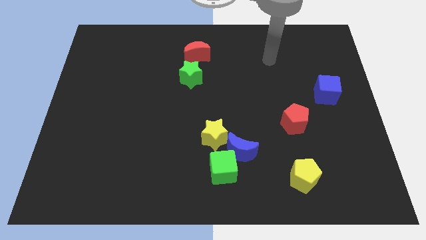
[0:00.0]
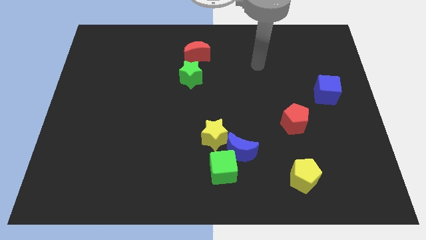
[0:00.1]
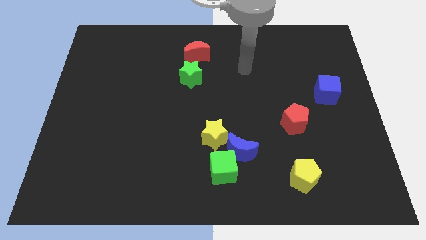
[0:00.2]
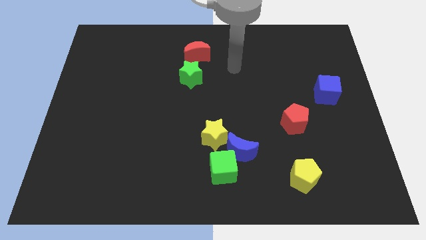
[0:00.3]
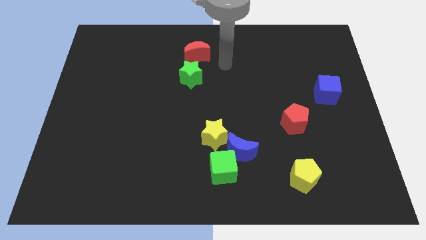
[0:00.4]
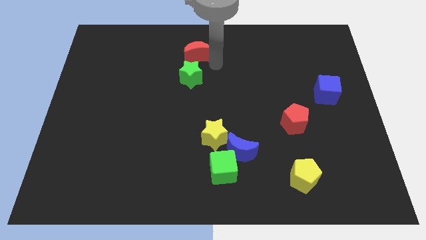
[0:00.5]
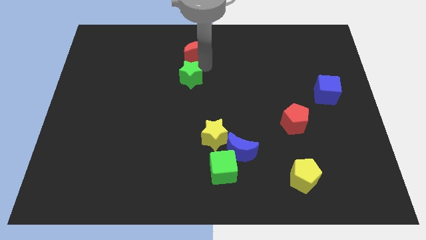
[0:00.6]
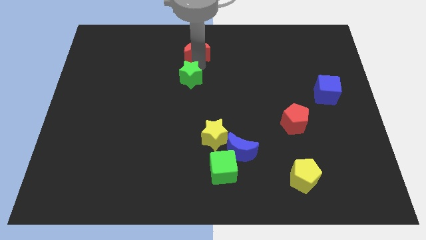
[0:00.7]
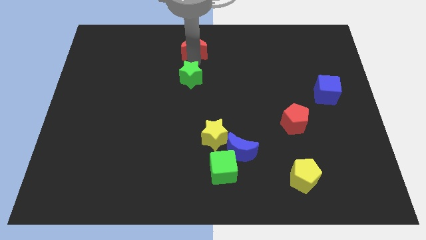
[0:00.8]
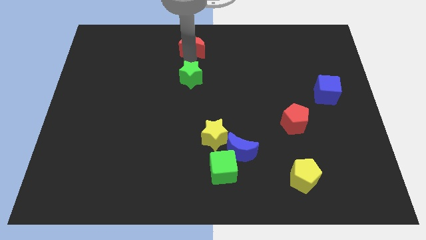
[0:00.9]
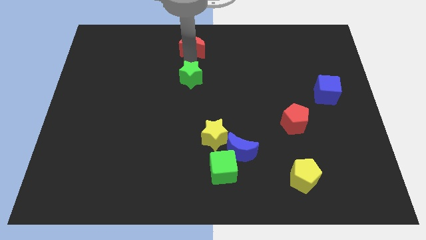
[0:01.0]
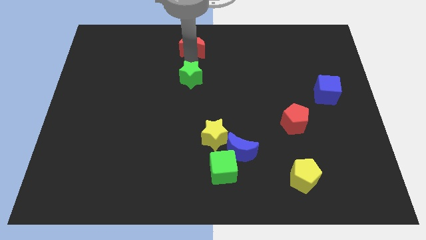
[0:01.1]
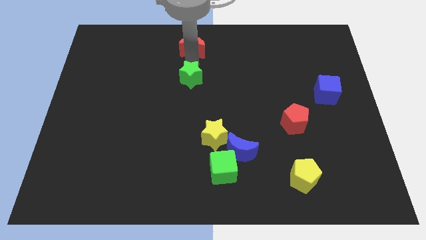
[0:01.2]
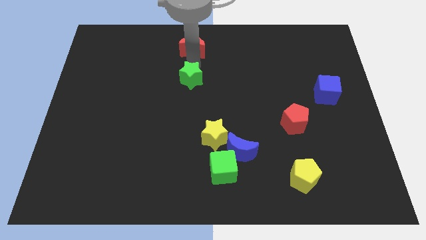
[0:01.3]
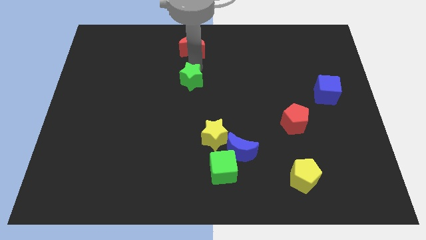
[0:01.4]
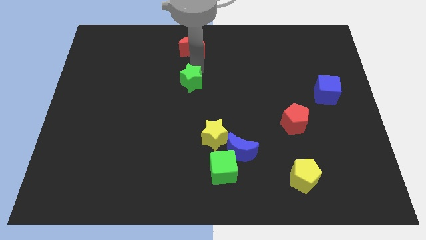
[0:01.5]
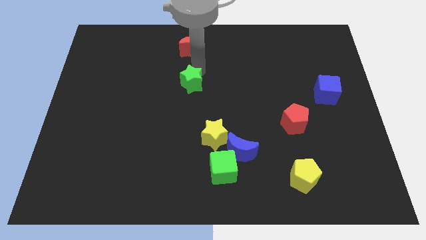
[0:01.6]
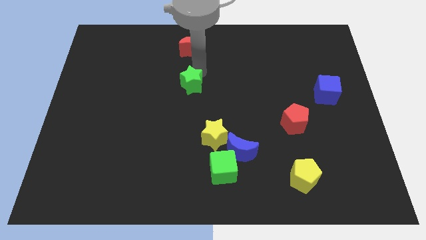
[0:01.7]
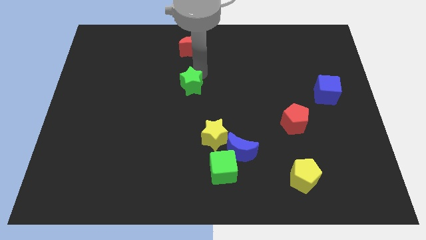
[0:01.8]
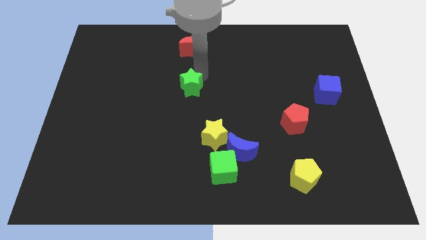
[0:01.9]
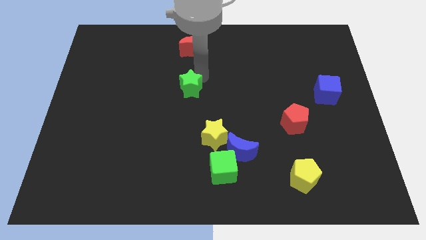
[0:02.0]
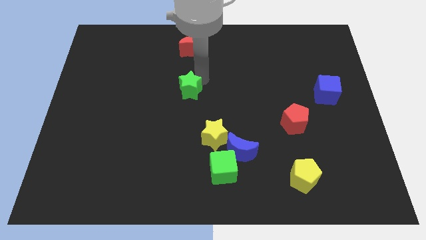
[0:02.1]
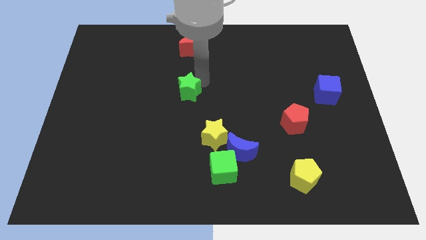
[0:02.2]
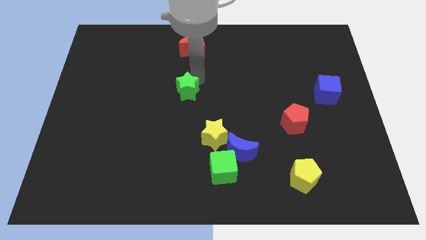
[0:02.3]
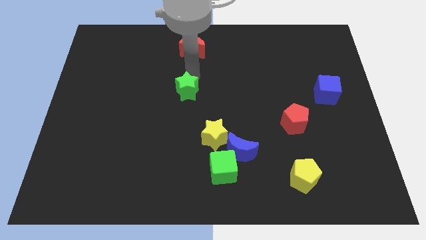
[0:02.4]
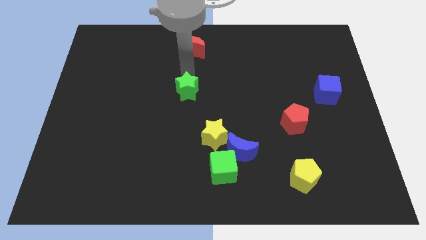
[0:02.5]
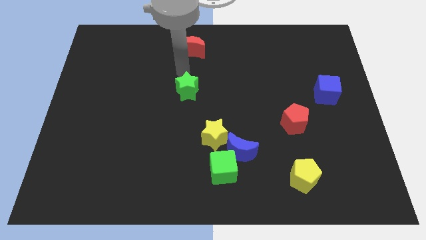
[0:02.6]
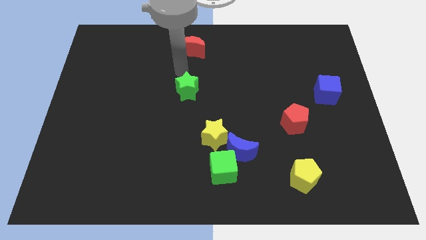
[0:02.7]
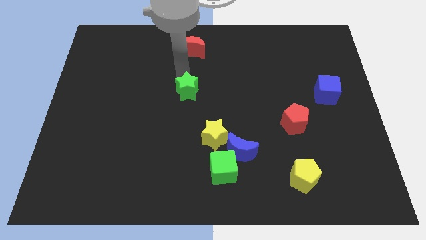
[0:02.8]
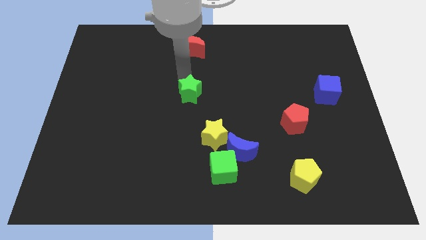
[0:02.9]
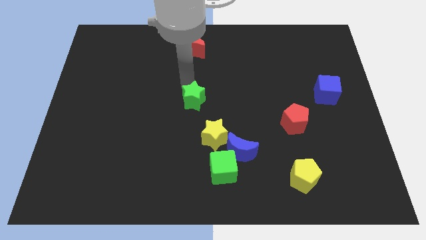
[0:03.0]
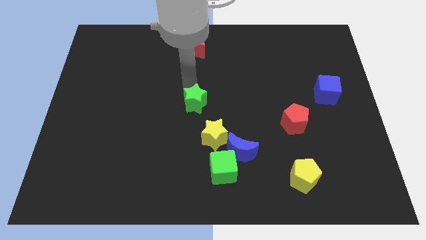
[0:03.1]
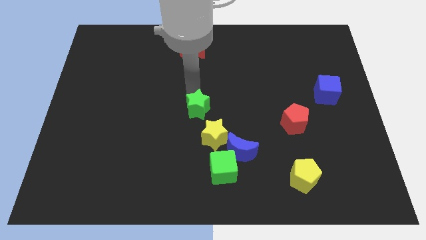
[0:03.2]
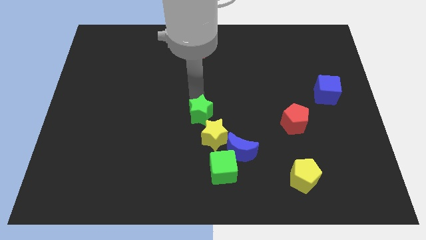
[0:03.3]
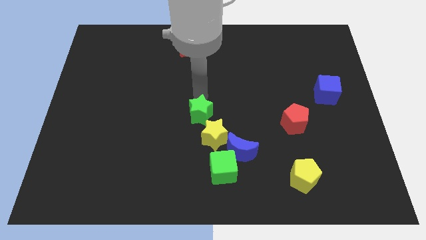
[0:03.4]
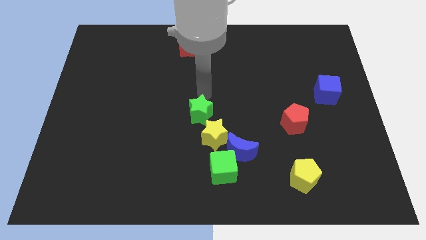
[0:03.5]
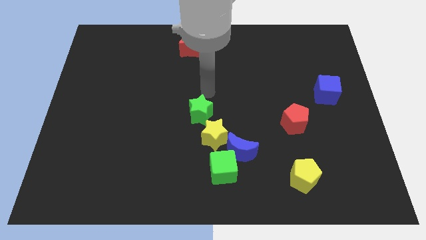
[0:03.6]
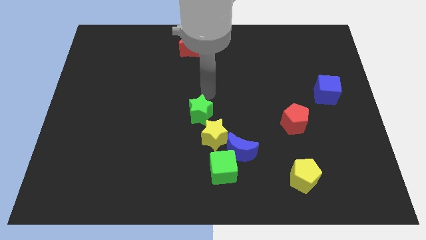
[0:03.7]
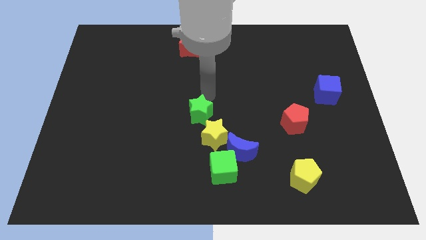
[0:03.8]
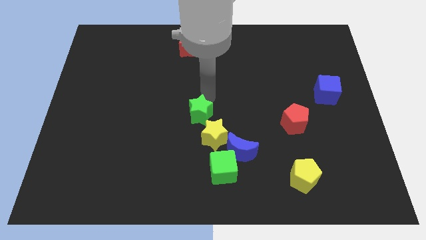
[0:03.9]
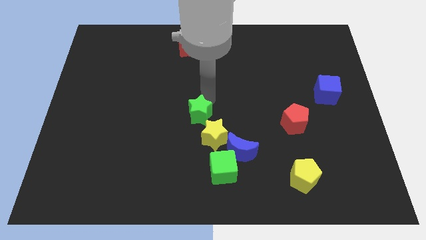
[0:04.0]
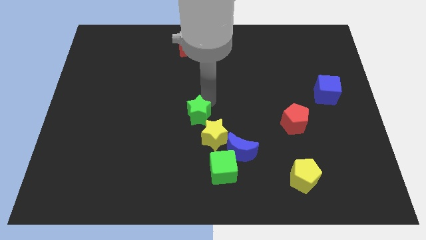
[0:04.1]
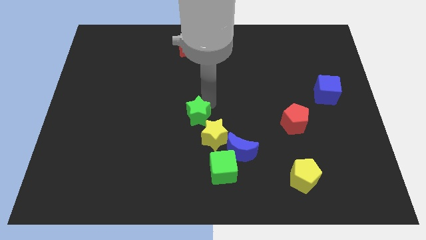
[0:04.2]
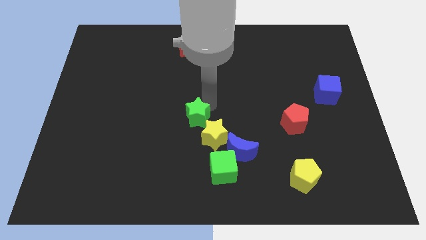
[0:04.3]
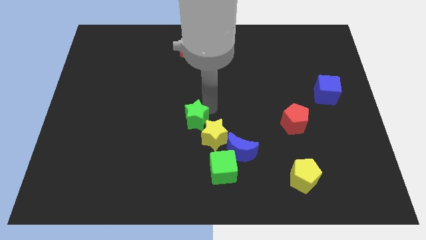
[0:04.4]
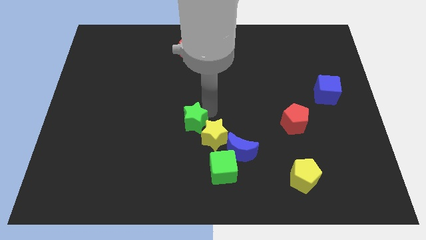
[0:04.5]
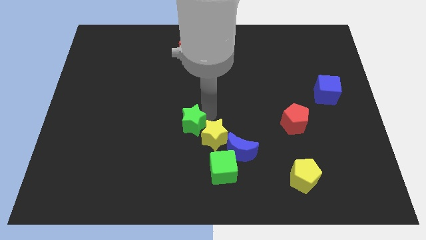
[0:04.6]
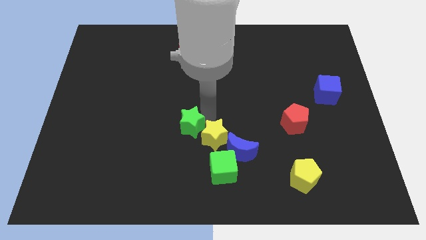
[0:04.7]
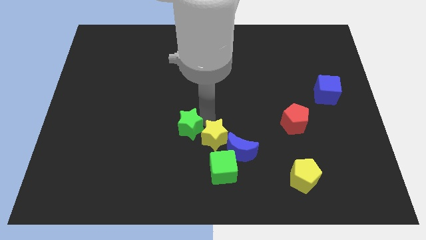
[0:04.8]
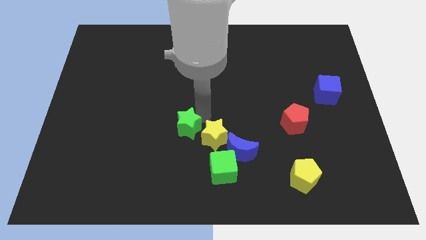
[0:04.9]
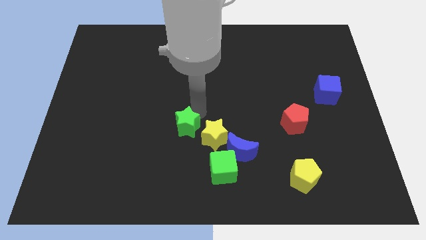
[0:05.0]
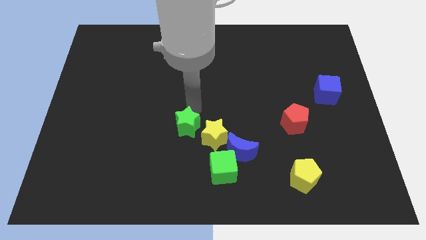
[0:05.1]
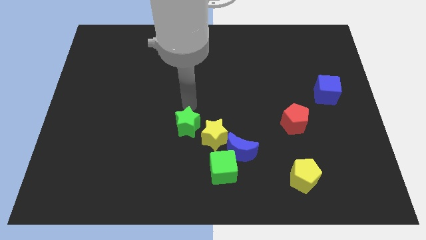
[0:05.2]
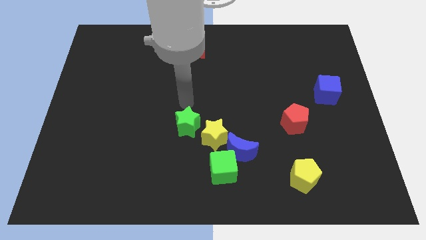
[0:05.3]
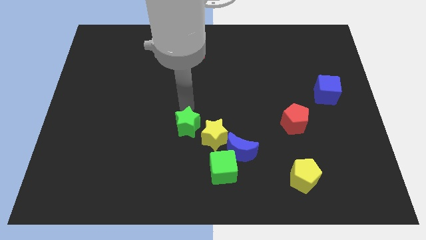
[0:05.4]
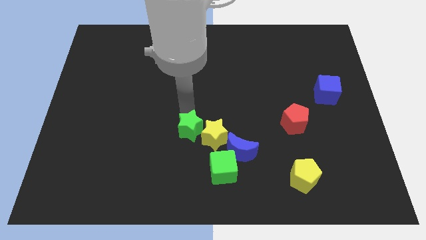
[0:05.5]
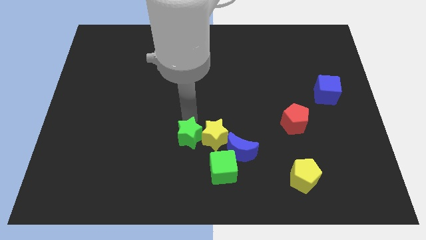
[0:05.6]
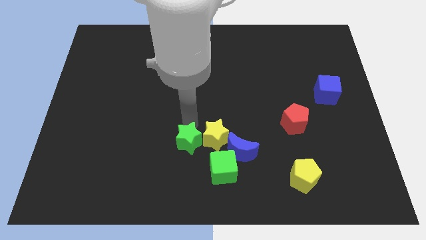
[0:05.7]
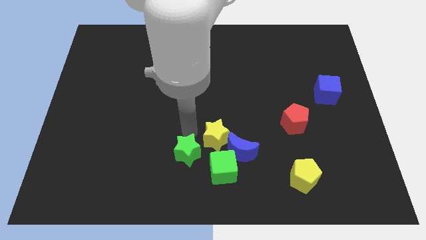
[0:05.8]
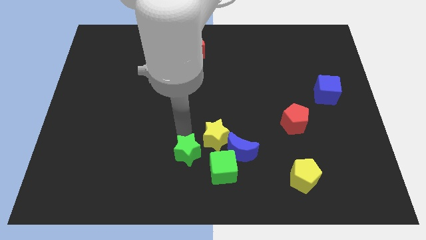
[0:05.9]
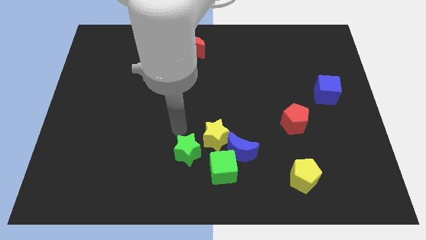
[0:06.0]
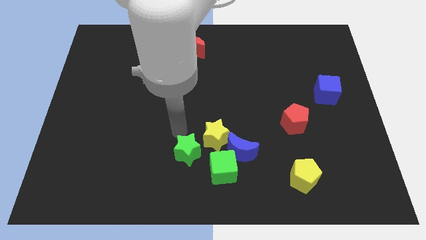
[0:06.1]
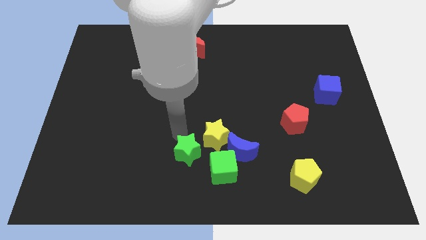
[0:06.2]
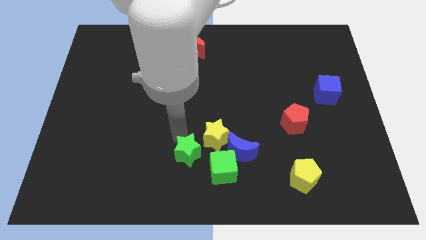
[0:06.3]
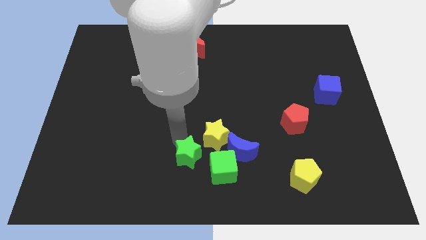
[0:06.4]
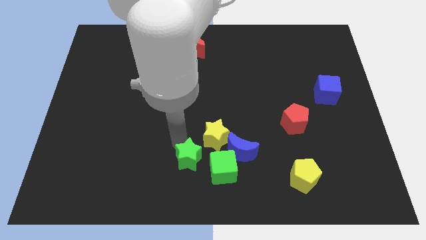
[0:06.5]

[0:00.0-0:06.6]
move the green star to the bottom side

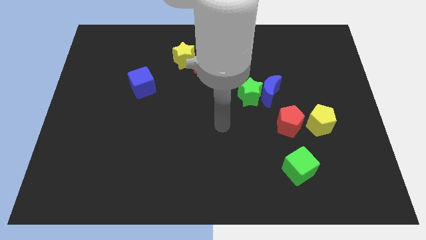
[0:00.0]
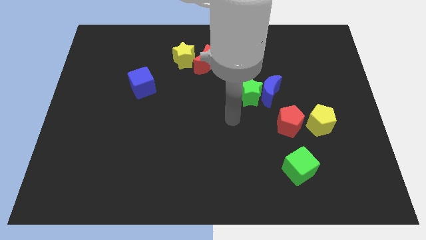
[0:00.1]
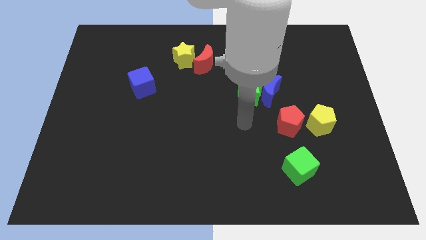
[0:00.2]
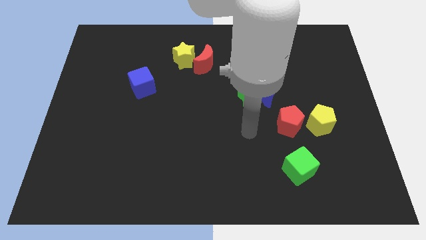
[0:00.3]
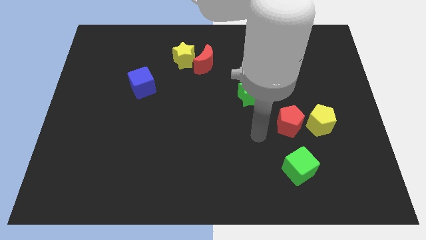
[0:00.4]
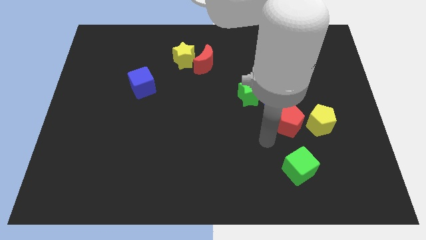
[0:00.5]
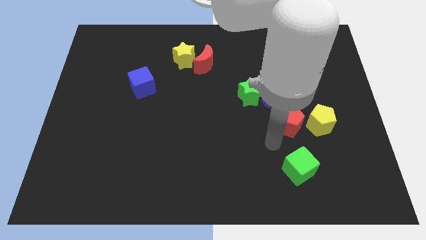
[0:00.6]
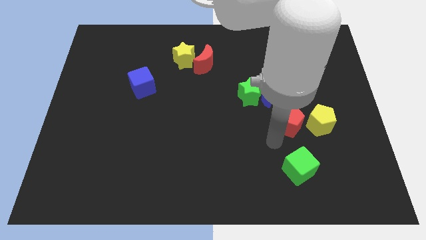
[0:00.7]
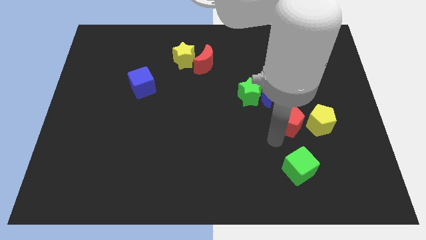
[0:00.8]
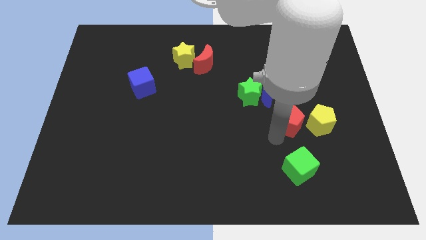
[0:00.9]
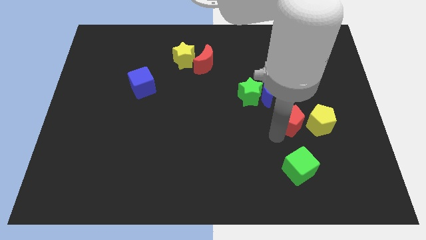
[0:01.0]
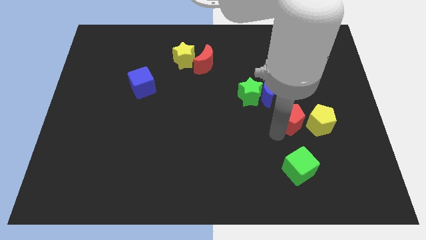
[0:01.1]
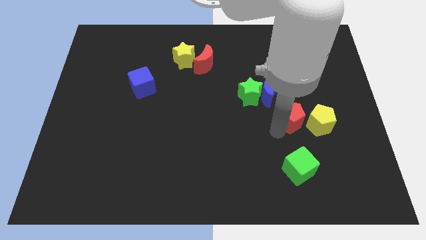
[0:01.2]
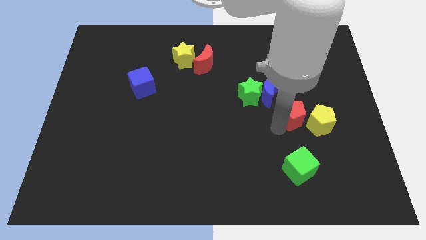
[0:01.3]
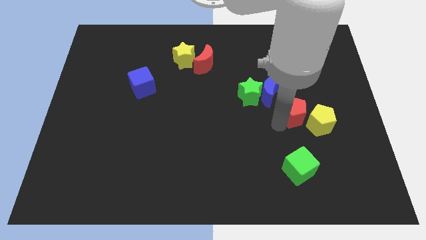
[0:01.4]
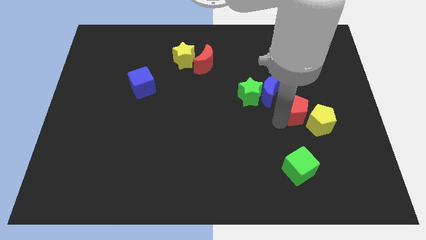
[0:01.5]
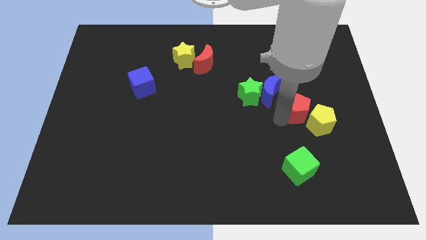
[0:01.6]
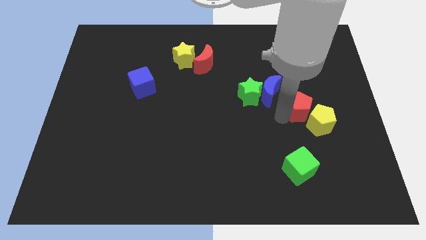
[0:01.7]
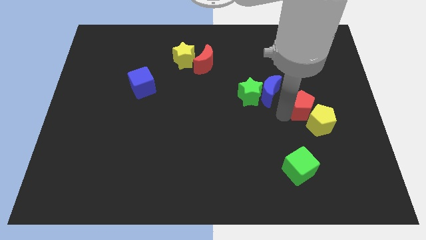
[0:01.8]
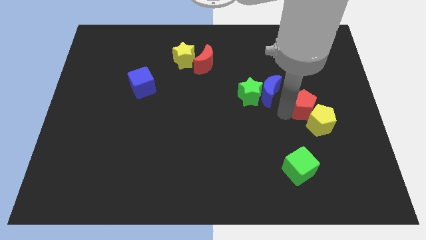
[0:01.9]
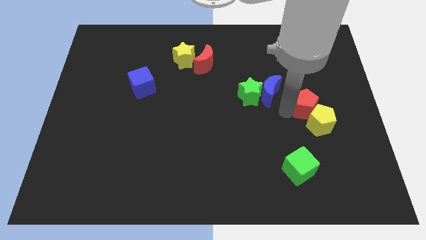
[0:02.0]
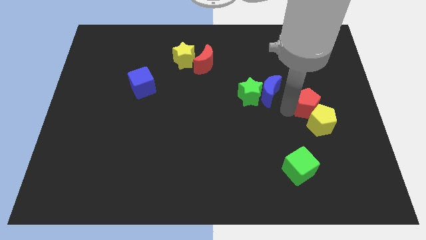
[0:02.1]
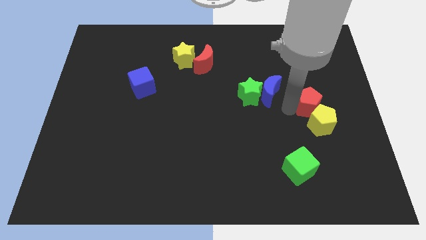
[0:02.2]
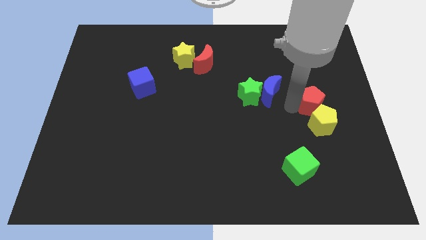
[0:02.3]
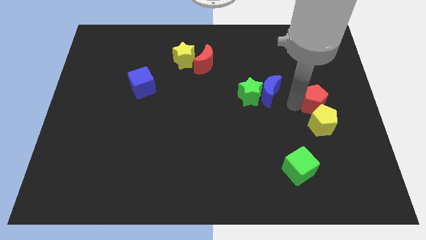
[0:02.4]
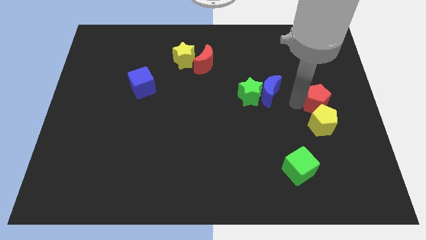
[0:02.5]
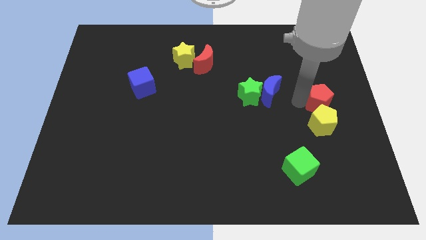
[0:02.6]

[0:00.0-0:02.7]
put the red pentagon to the right side
